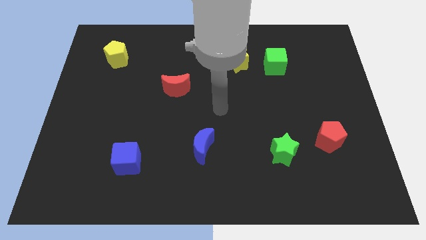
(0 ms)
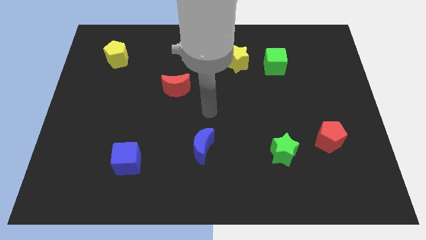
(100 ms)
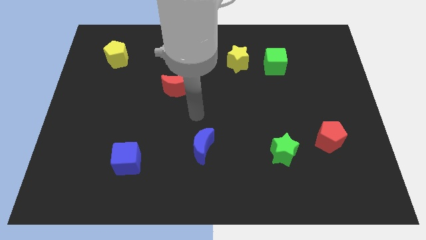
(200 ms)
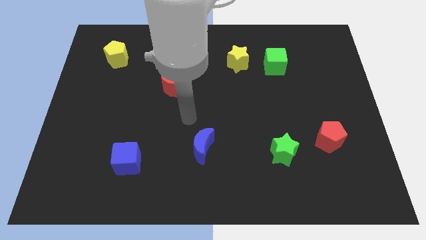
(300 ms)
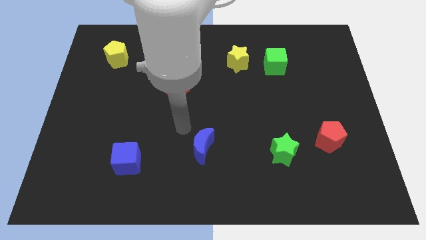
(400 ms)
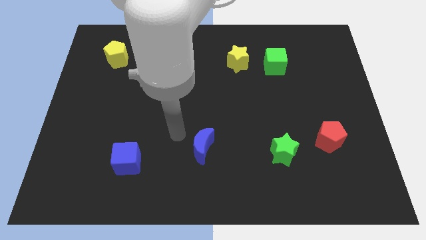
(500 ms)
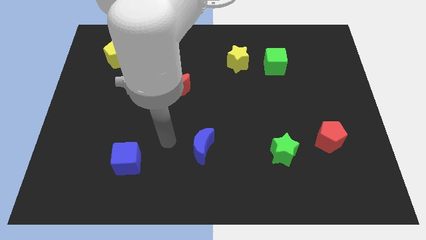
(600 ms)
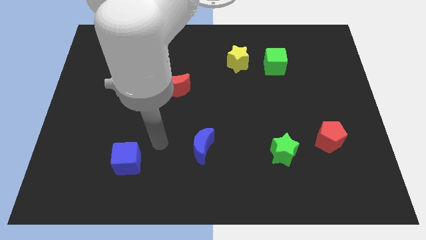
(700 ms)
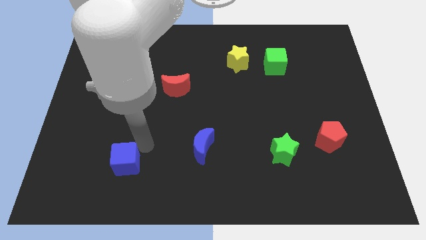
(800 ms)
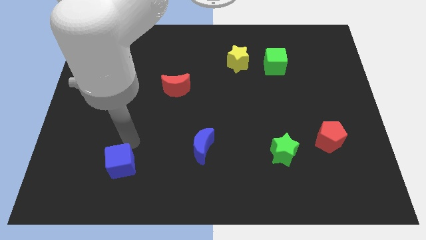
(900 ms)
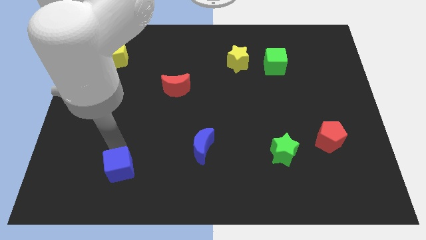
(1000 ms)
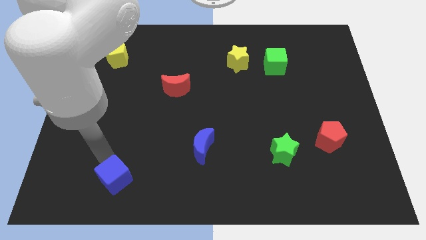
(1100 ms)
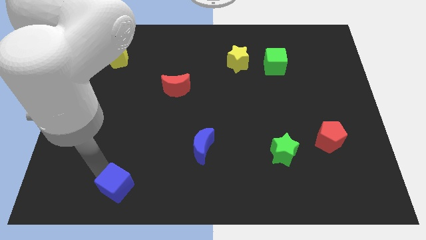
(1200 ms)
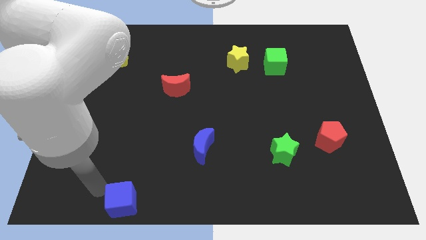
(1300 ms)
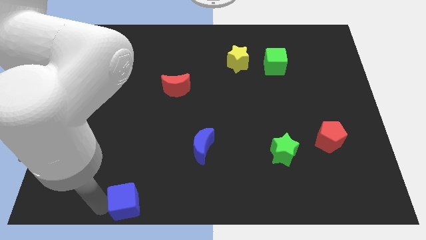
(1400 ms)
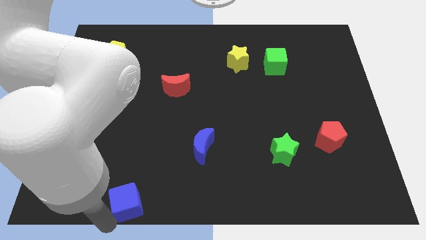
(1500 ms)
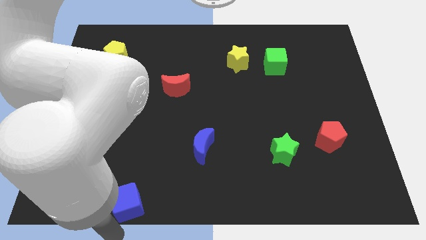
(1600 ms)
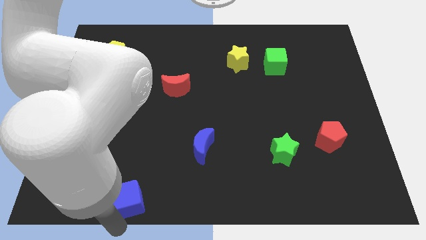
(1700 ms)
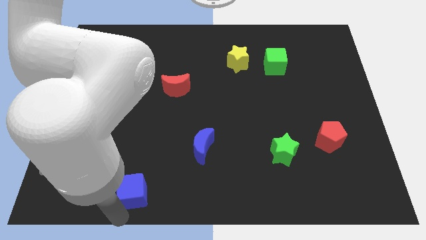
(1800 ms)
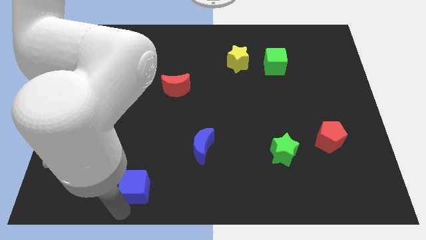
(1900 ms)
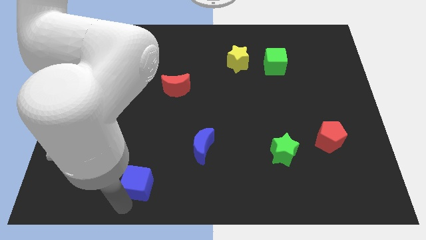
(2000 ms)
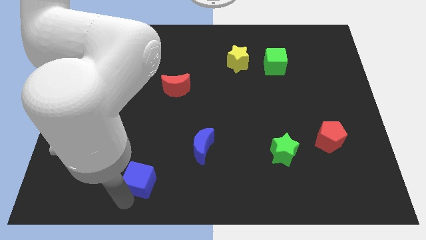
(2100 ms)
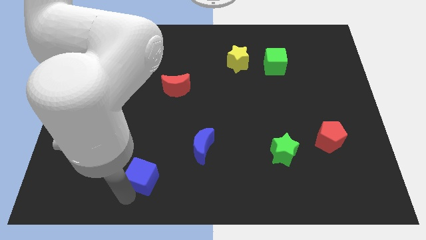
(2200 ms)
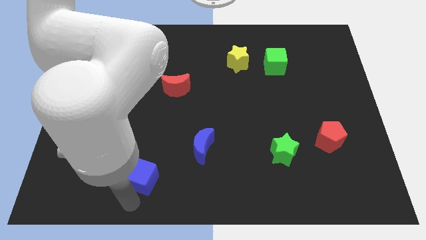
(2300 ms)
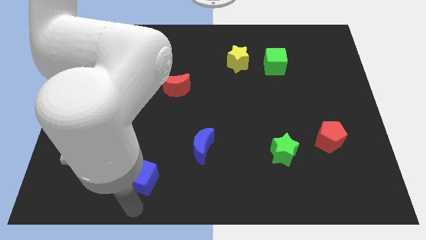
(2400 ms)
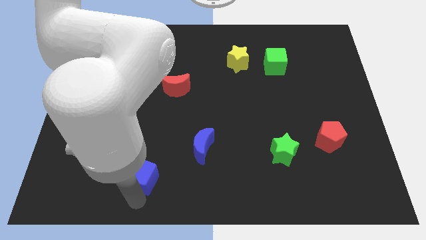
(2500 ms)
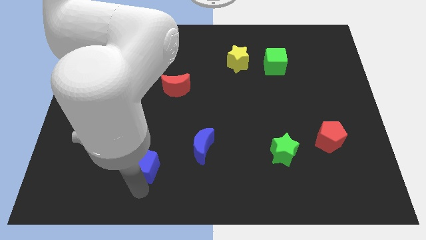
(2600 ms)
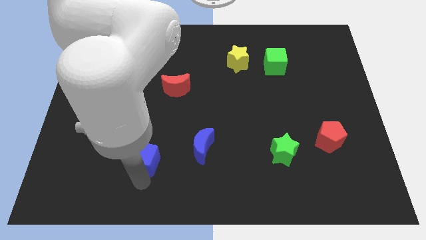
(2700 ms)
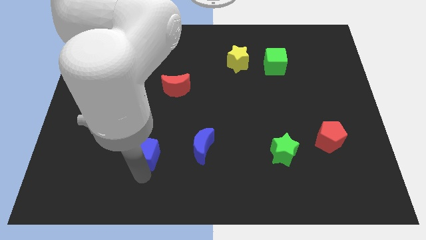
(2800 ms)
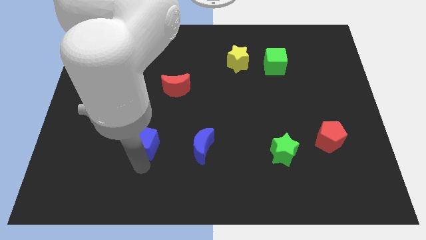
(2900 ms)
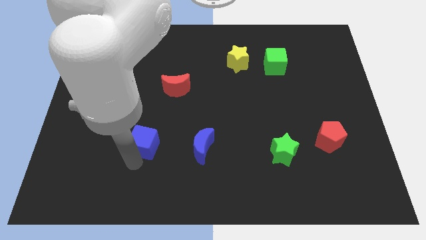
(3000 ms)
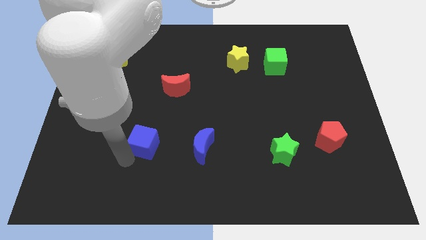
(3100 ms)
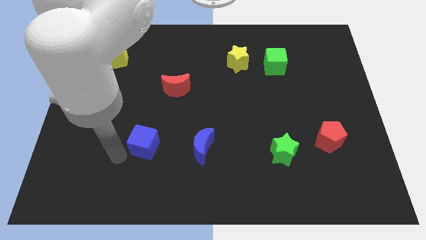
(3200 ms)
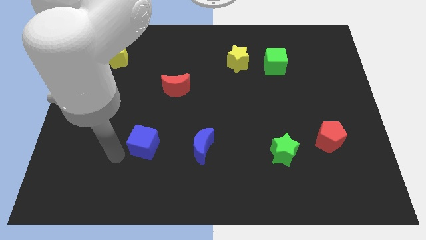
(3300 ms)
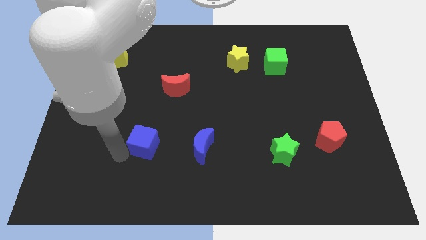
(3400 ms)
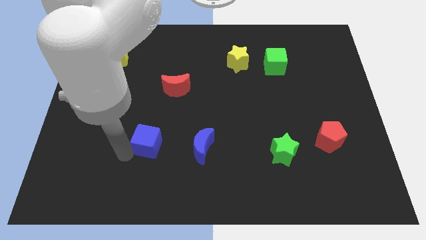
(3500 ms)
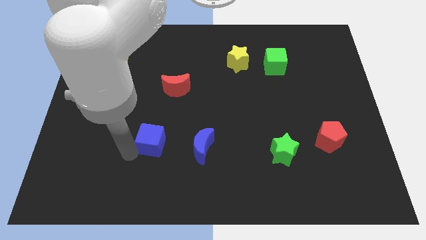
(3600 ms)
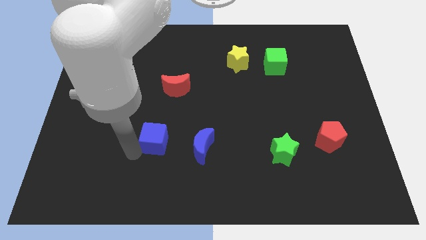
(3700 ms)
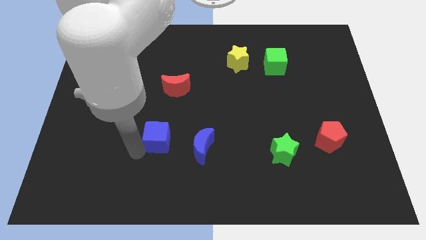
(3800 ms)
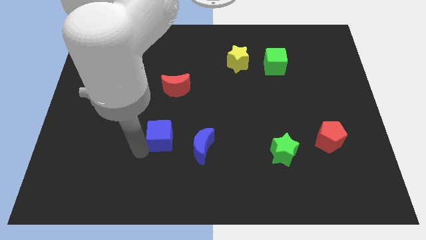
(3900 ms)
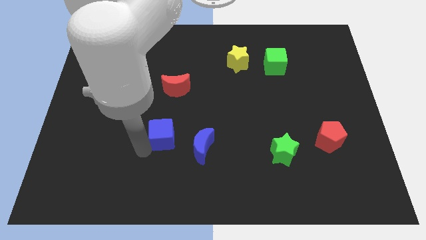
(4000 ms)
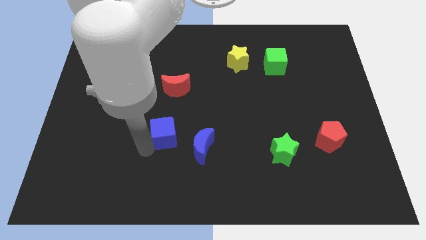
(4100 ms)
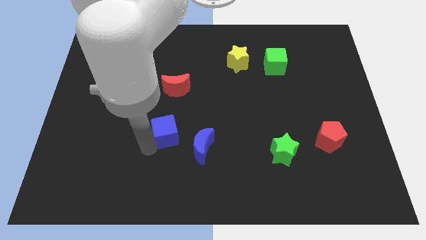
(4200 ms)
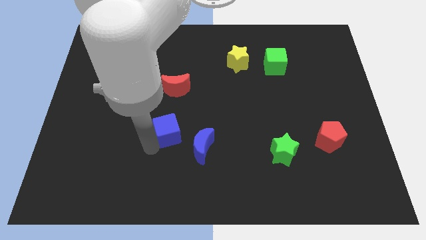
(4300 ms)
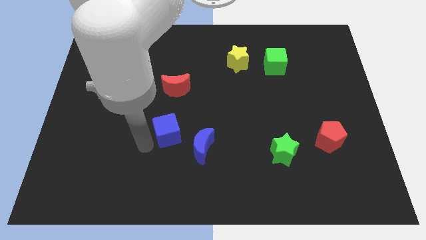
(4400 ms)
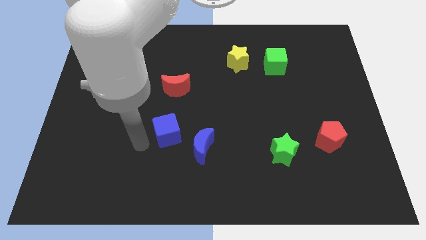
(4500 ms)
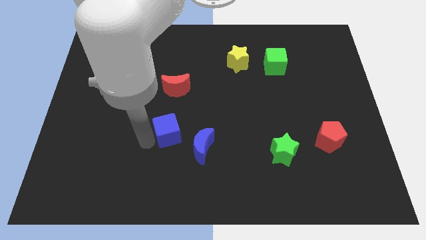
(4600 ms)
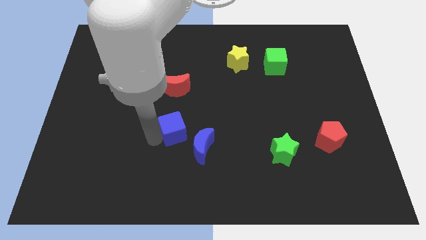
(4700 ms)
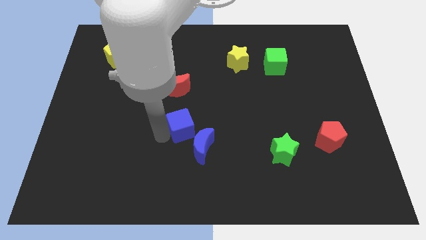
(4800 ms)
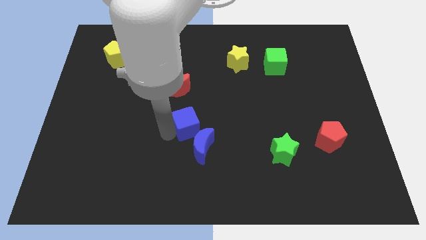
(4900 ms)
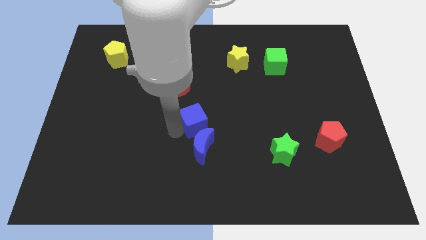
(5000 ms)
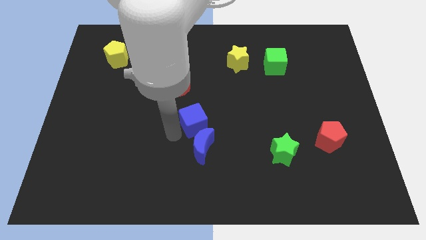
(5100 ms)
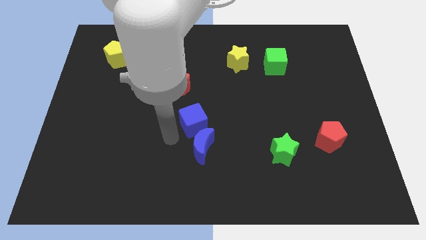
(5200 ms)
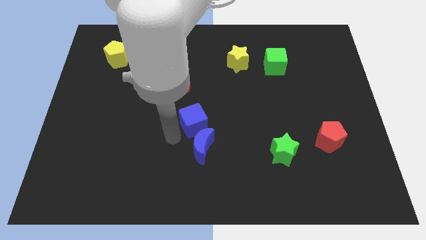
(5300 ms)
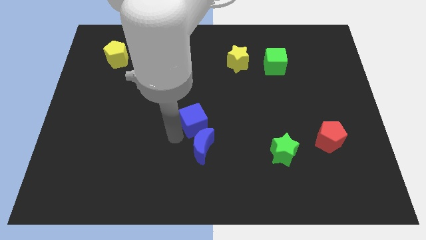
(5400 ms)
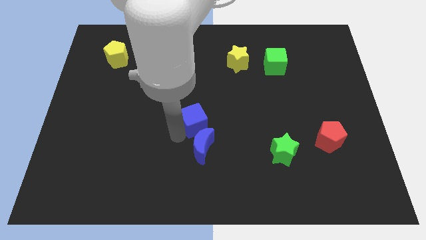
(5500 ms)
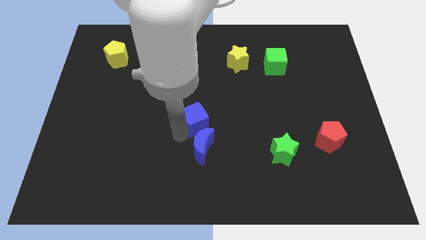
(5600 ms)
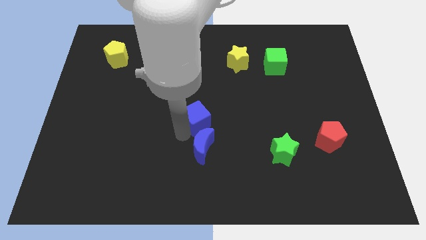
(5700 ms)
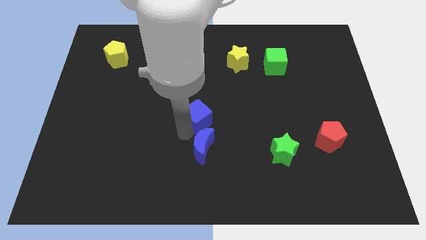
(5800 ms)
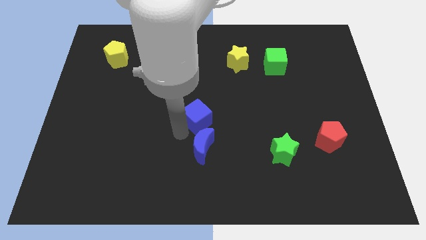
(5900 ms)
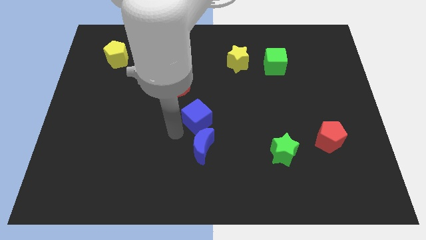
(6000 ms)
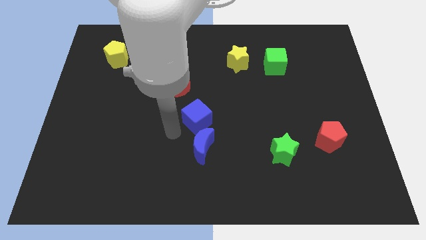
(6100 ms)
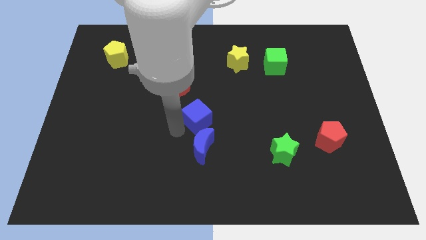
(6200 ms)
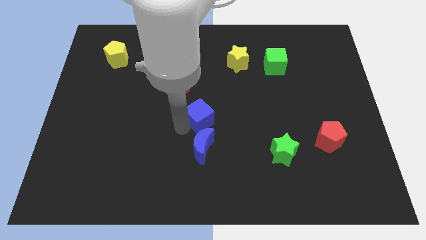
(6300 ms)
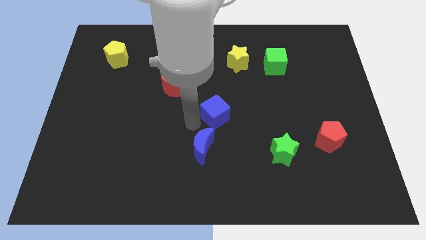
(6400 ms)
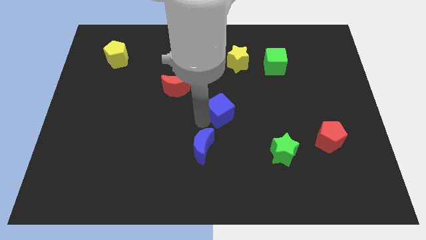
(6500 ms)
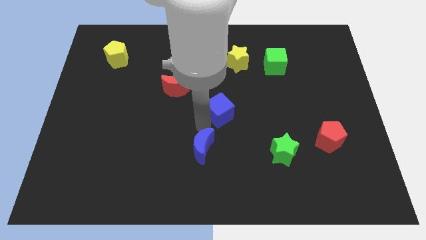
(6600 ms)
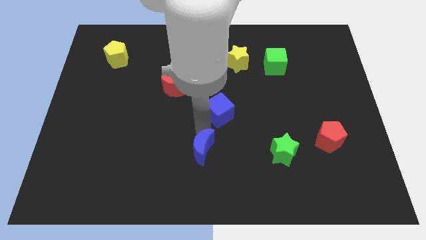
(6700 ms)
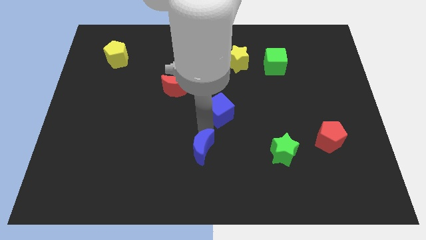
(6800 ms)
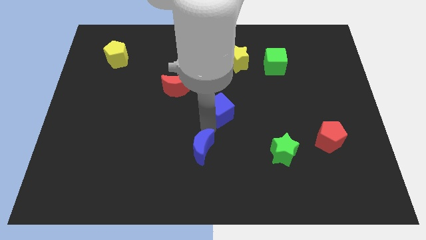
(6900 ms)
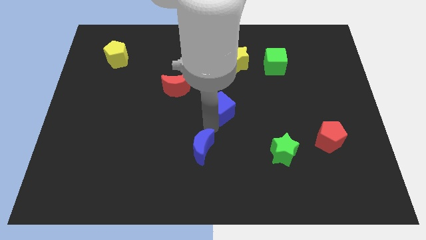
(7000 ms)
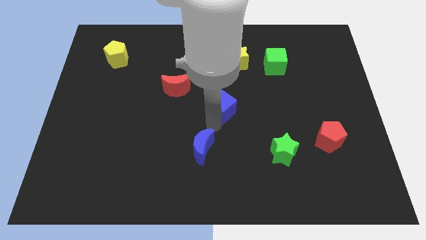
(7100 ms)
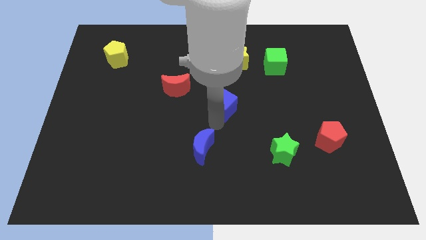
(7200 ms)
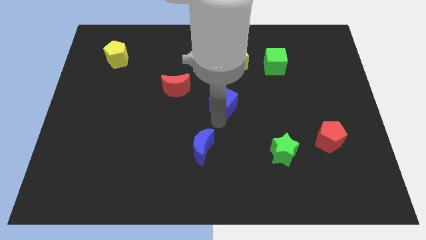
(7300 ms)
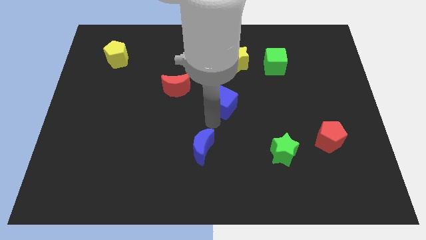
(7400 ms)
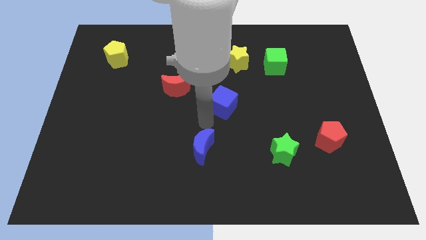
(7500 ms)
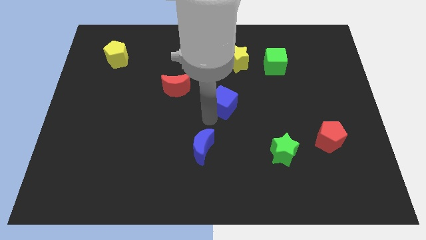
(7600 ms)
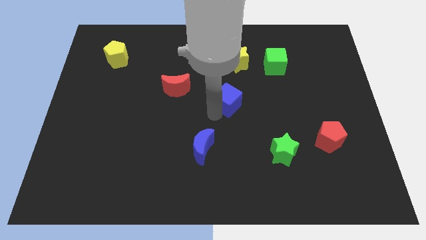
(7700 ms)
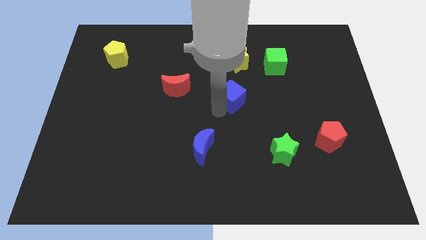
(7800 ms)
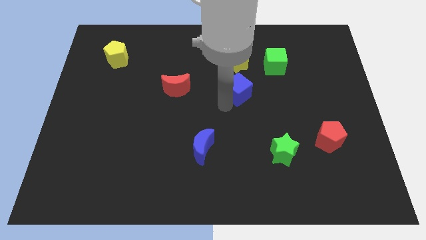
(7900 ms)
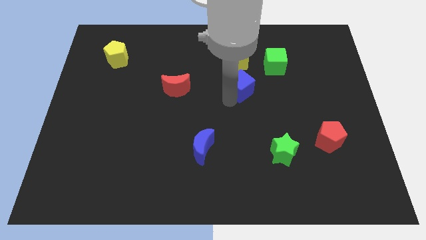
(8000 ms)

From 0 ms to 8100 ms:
put the blue cube to the bottom left of the green cube
